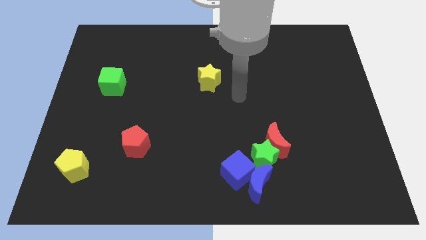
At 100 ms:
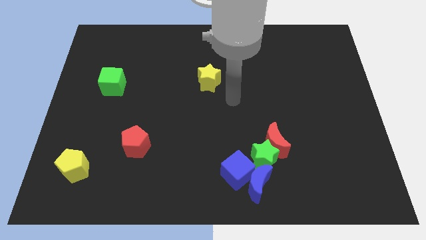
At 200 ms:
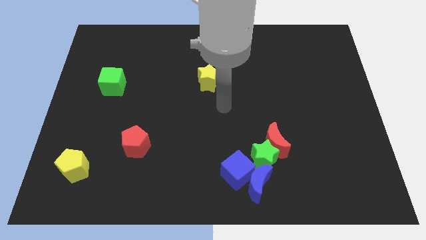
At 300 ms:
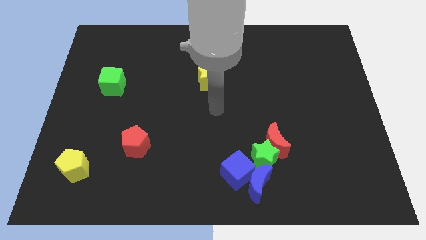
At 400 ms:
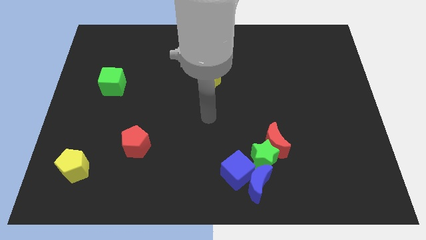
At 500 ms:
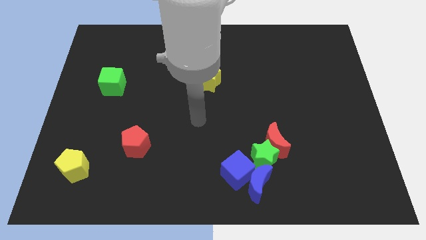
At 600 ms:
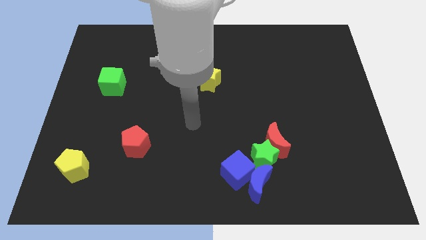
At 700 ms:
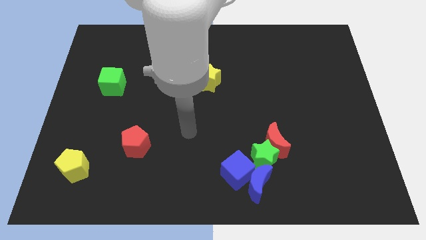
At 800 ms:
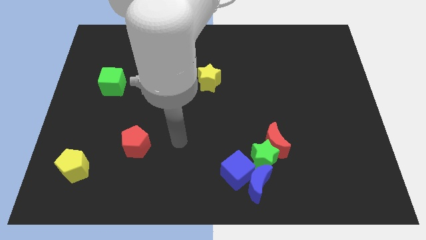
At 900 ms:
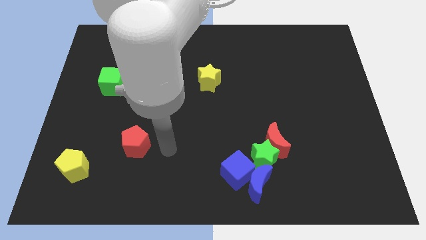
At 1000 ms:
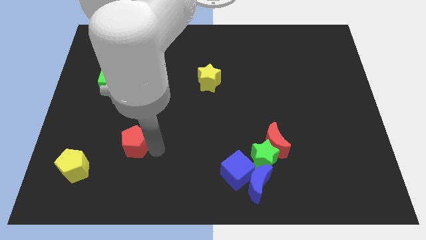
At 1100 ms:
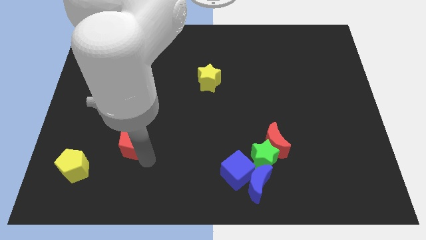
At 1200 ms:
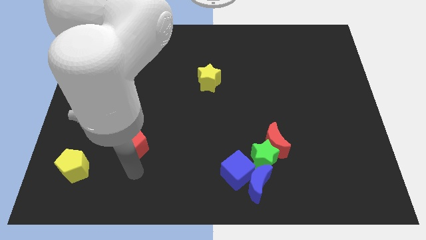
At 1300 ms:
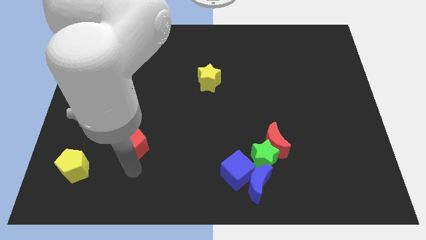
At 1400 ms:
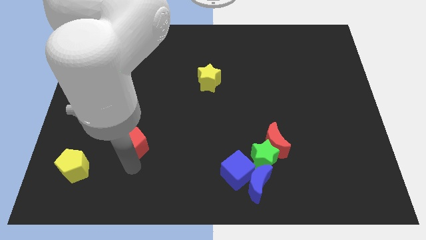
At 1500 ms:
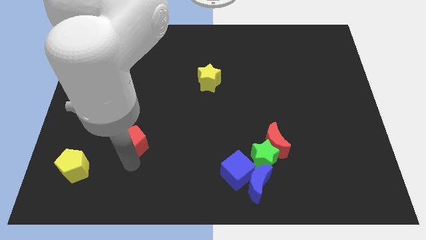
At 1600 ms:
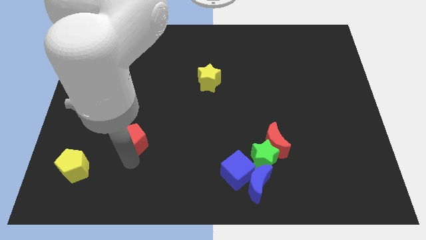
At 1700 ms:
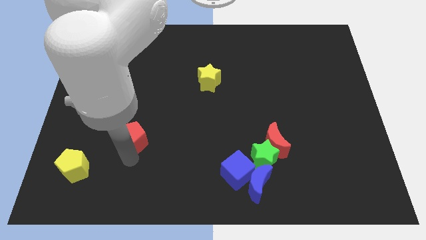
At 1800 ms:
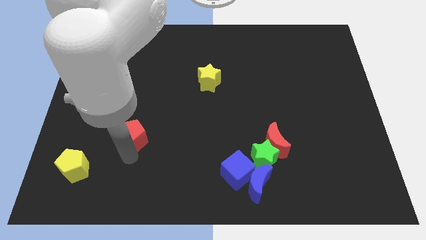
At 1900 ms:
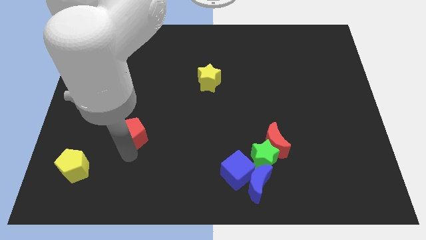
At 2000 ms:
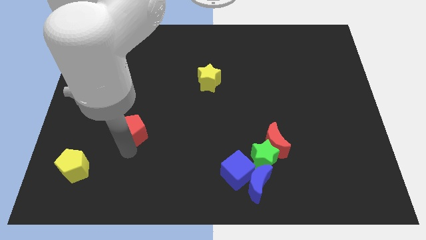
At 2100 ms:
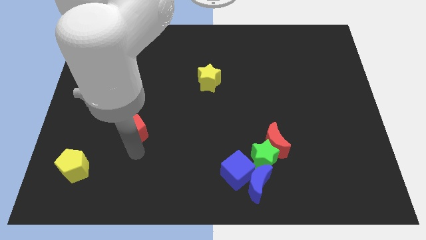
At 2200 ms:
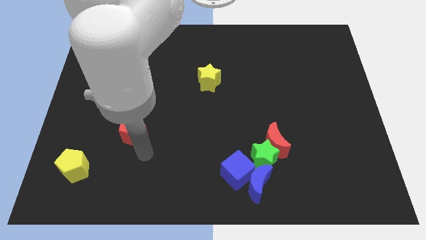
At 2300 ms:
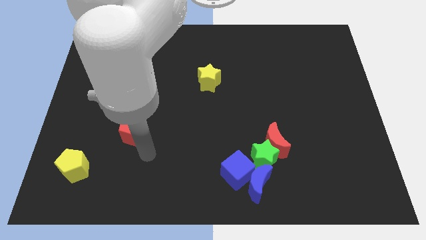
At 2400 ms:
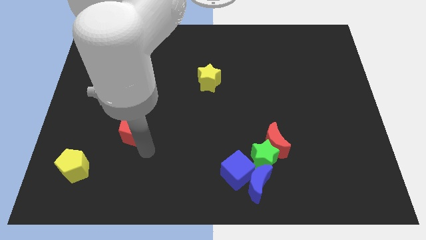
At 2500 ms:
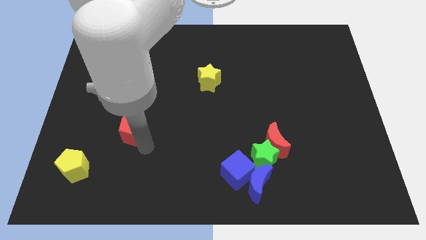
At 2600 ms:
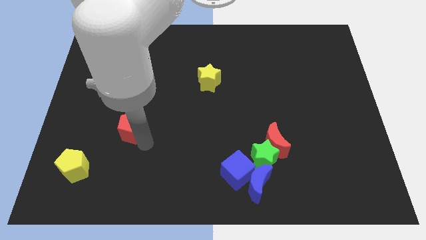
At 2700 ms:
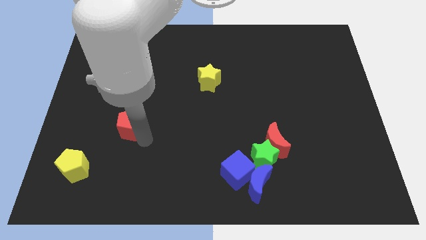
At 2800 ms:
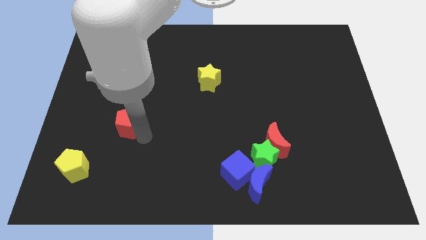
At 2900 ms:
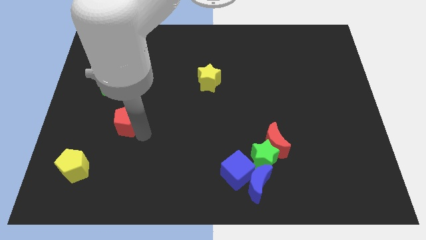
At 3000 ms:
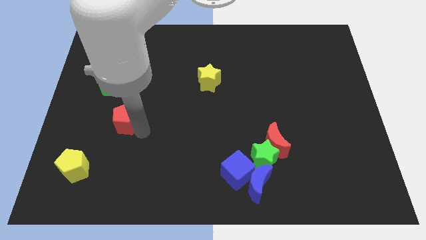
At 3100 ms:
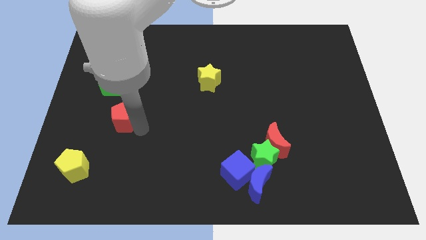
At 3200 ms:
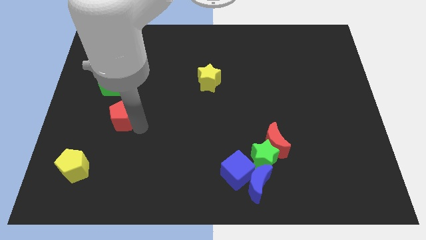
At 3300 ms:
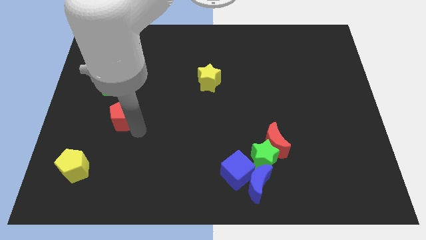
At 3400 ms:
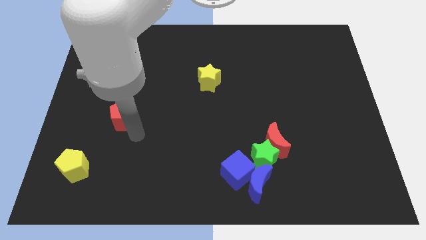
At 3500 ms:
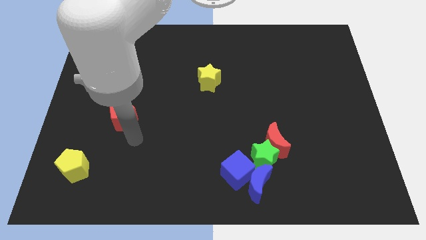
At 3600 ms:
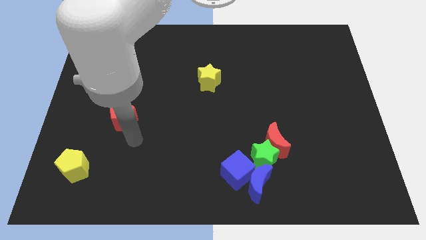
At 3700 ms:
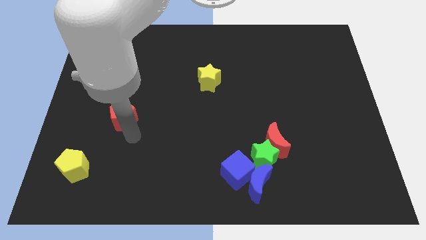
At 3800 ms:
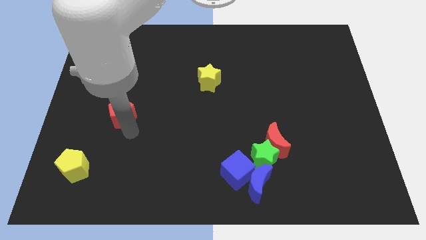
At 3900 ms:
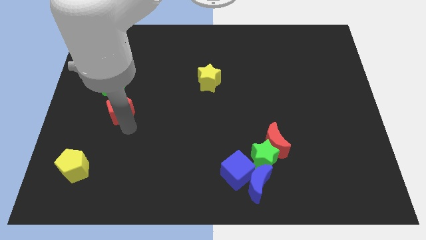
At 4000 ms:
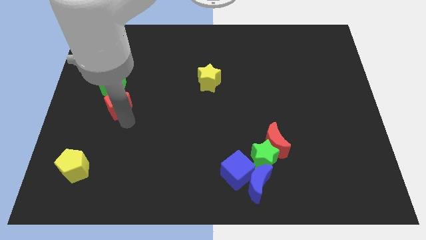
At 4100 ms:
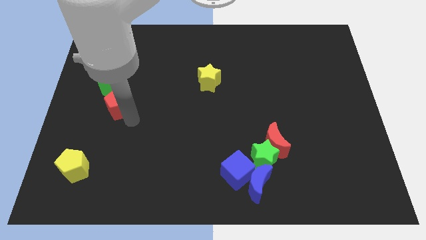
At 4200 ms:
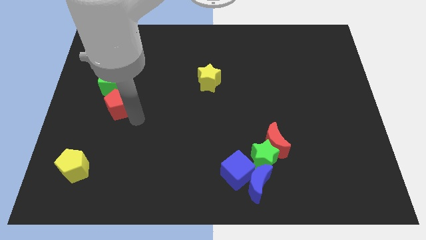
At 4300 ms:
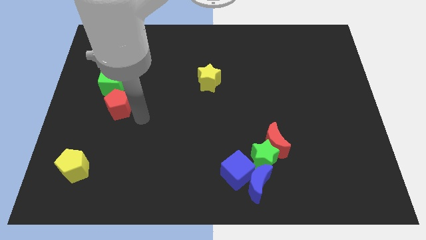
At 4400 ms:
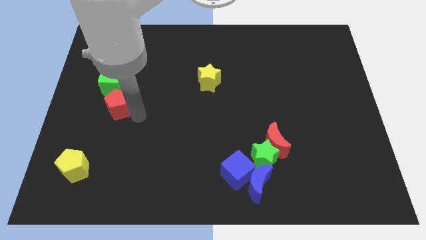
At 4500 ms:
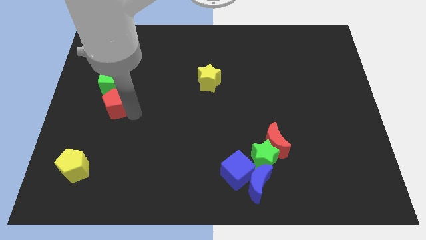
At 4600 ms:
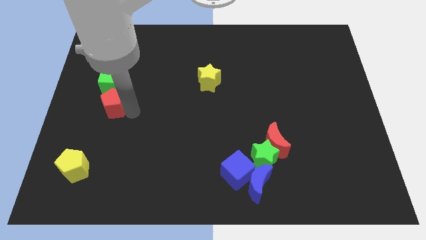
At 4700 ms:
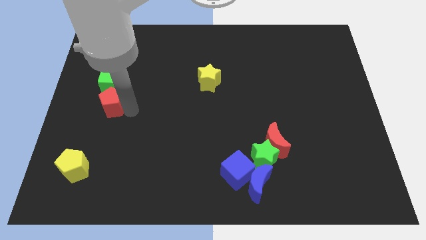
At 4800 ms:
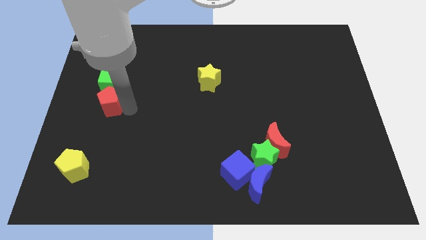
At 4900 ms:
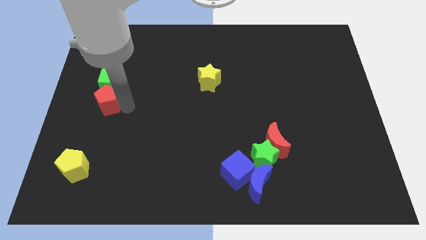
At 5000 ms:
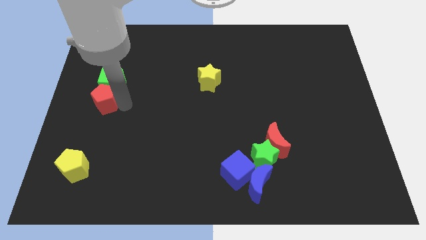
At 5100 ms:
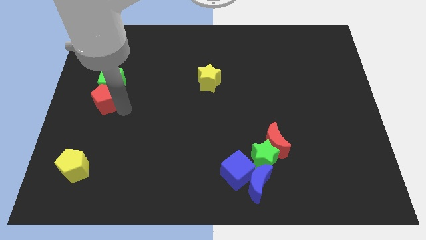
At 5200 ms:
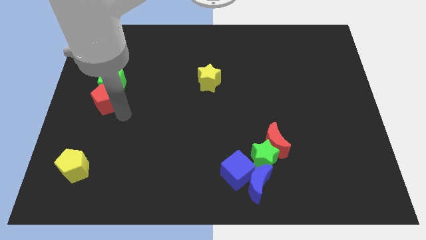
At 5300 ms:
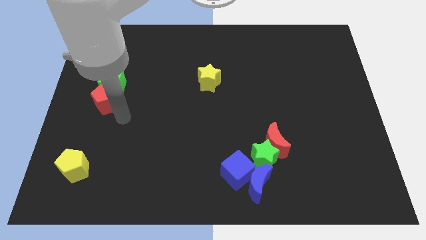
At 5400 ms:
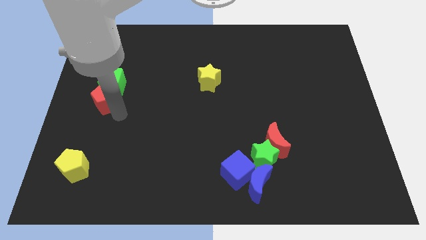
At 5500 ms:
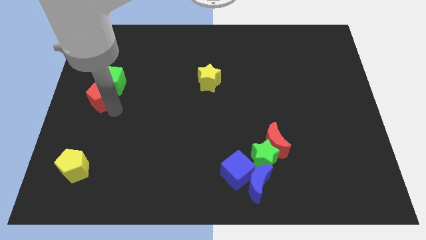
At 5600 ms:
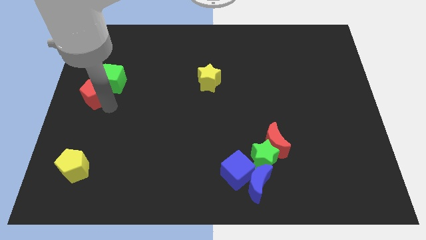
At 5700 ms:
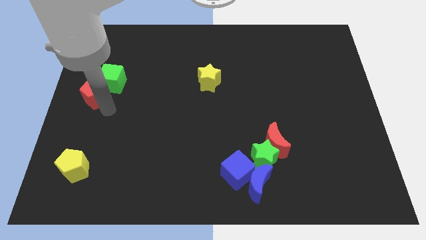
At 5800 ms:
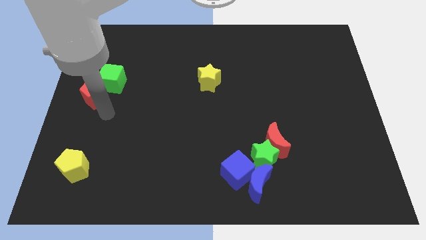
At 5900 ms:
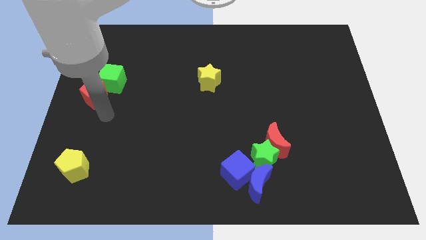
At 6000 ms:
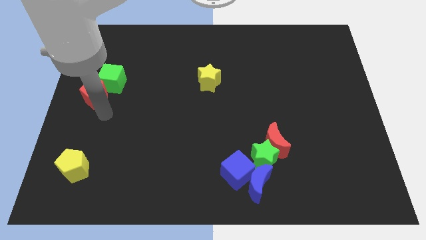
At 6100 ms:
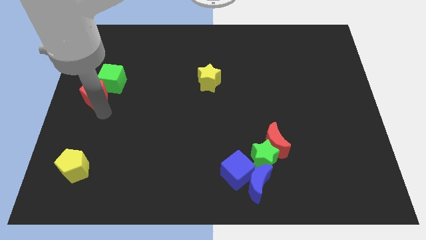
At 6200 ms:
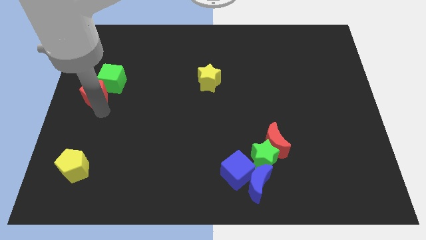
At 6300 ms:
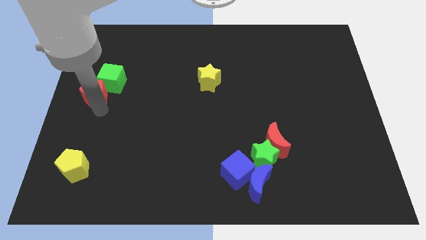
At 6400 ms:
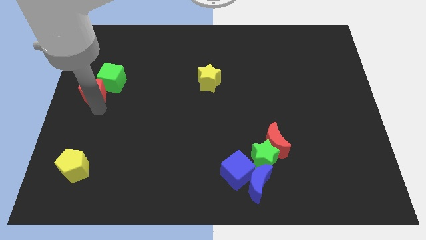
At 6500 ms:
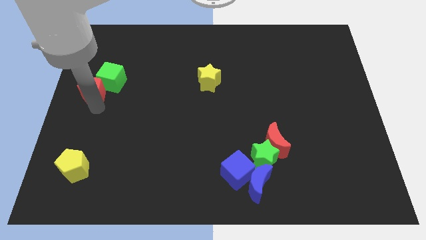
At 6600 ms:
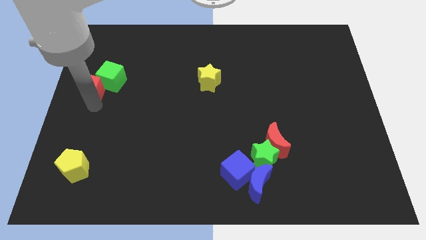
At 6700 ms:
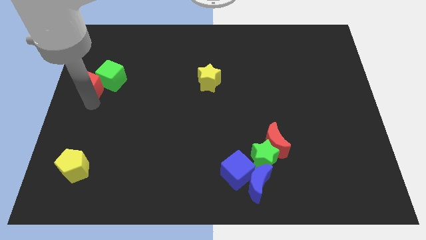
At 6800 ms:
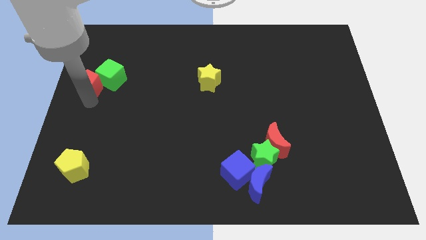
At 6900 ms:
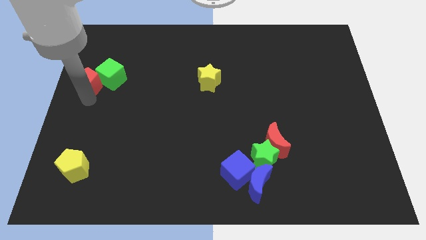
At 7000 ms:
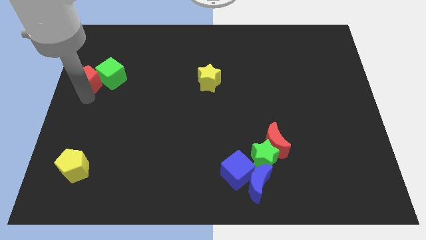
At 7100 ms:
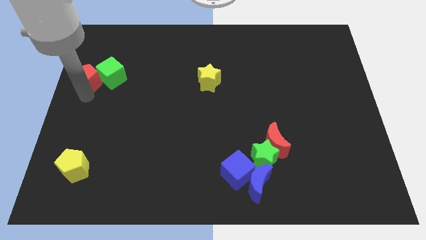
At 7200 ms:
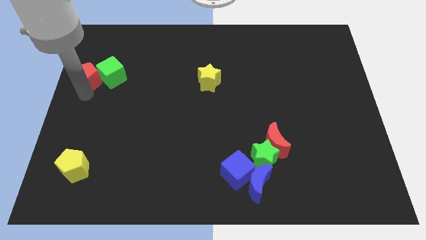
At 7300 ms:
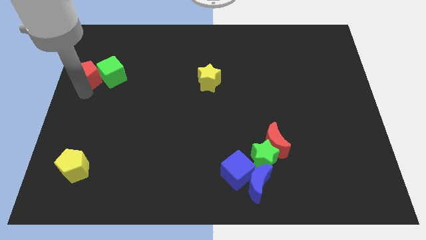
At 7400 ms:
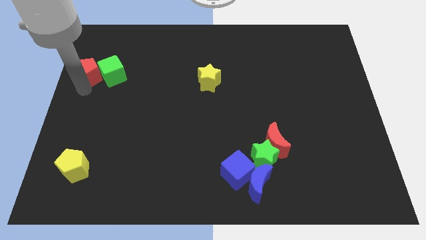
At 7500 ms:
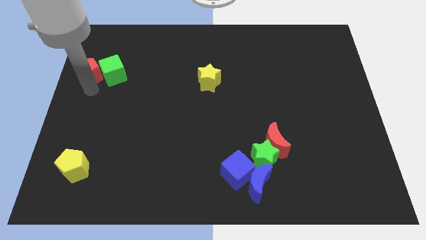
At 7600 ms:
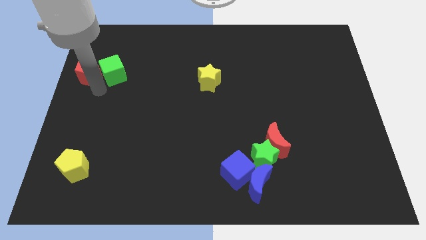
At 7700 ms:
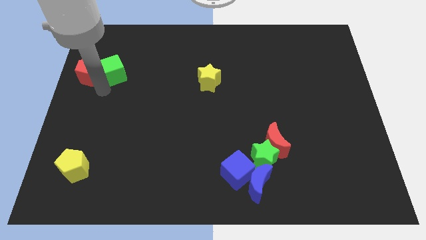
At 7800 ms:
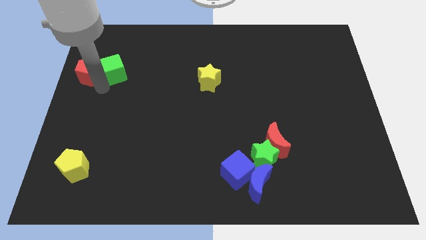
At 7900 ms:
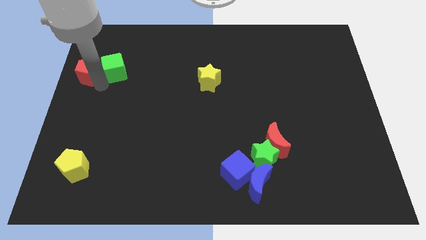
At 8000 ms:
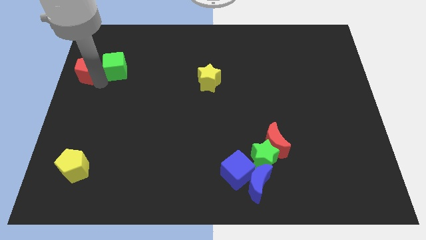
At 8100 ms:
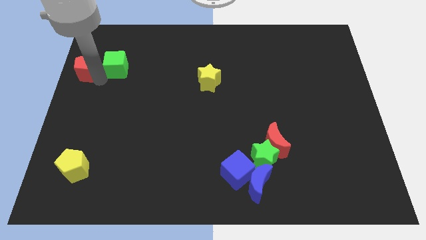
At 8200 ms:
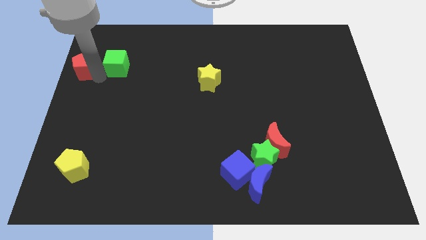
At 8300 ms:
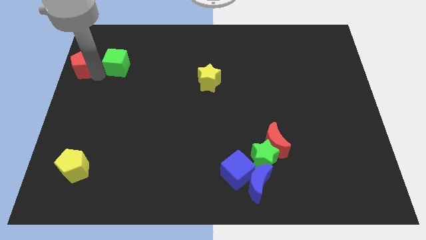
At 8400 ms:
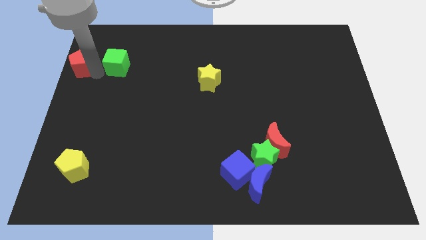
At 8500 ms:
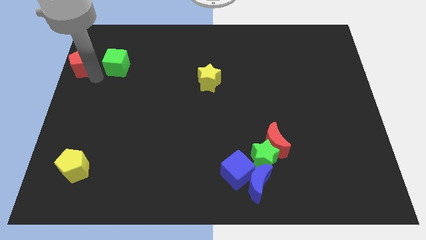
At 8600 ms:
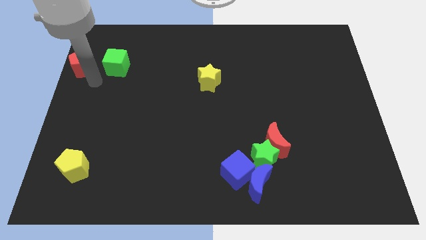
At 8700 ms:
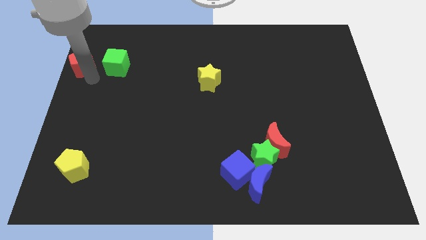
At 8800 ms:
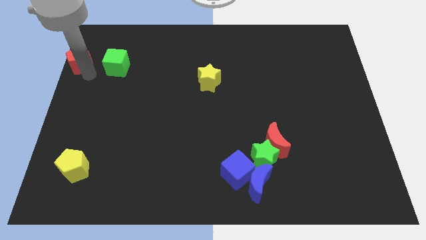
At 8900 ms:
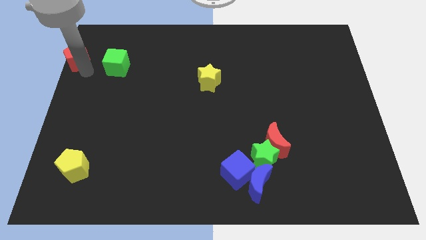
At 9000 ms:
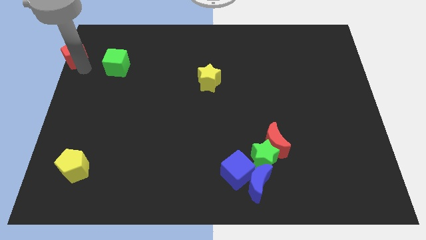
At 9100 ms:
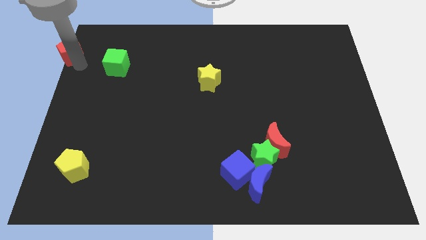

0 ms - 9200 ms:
push the red pentagon to the upper left corner
